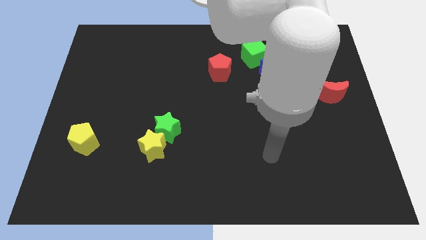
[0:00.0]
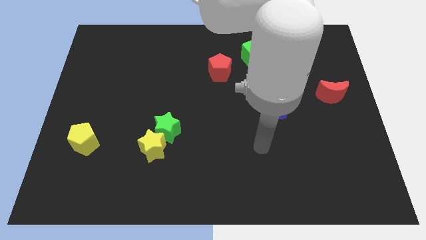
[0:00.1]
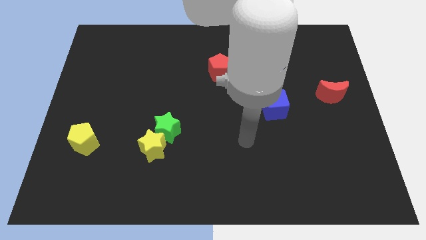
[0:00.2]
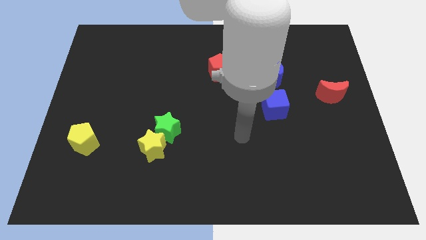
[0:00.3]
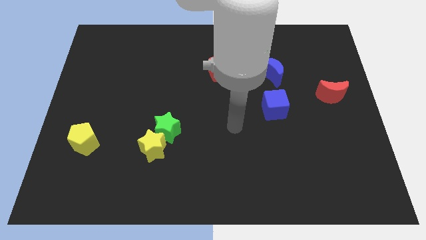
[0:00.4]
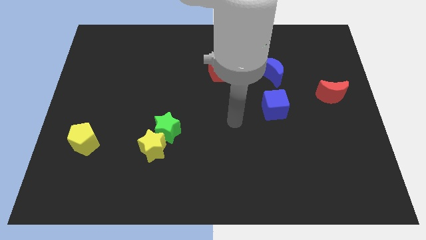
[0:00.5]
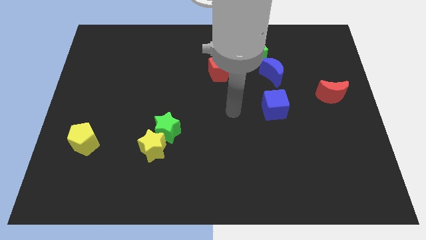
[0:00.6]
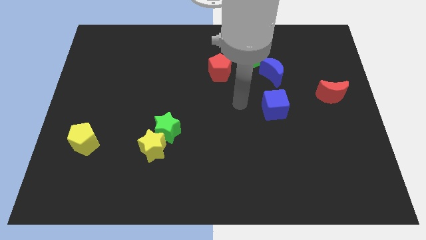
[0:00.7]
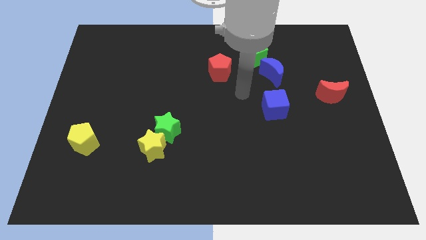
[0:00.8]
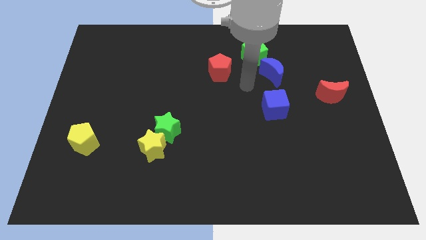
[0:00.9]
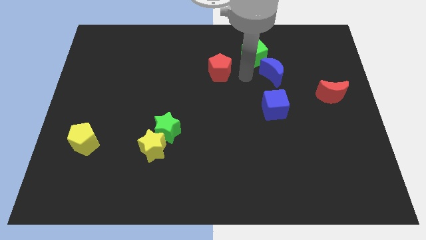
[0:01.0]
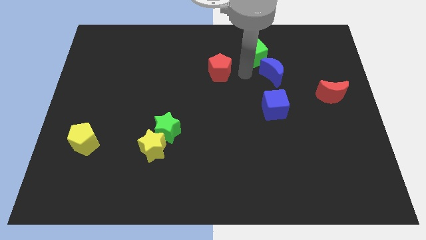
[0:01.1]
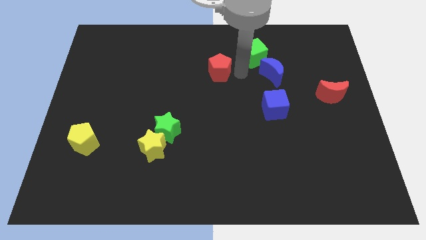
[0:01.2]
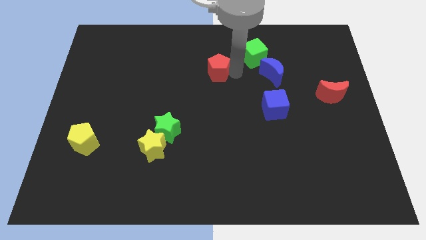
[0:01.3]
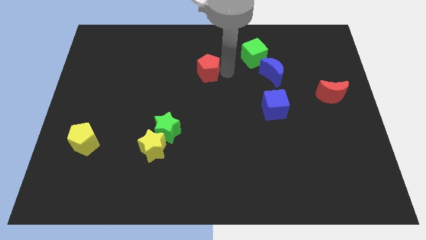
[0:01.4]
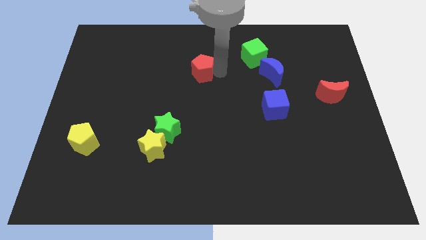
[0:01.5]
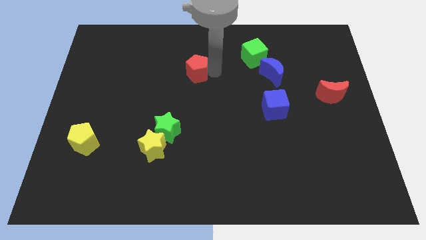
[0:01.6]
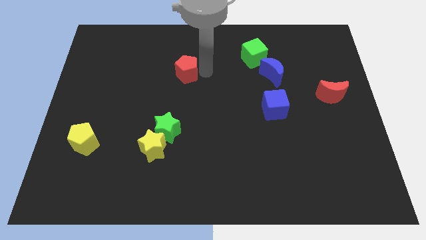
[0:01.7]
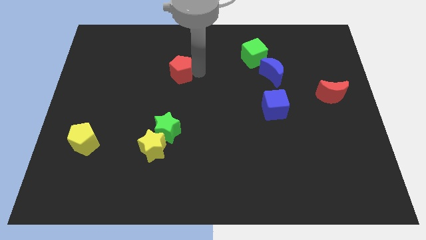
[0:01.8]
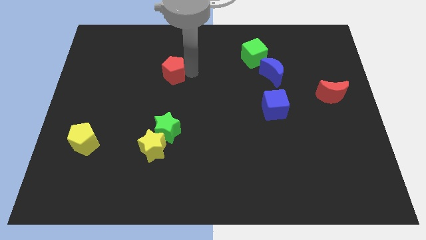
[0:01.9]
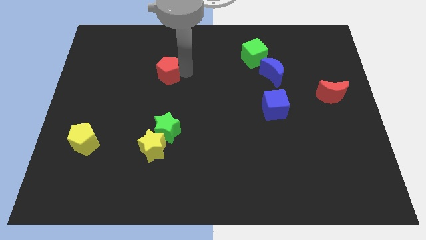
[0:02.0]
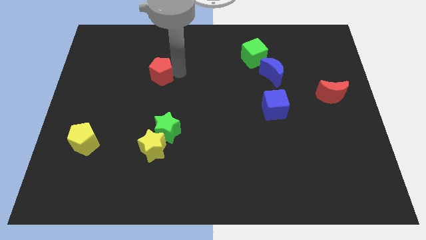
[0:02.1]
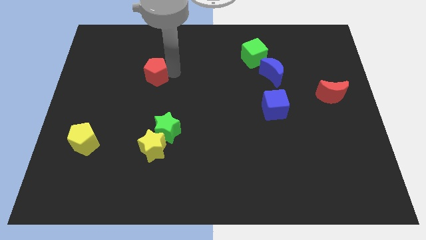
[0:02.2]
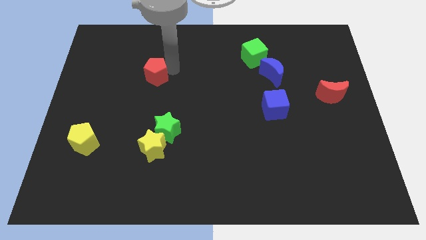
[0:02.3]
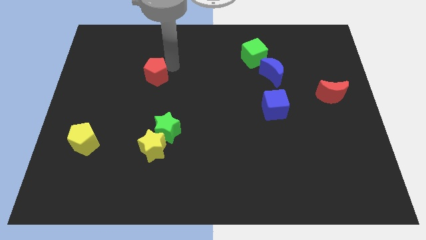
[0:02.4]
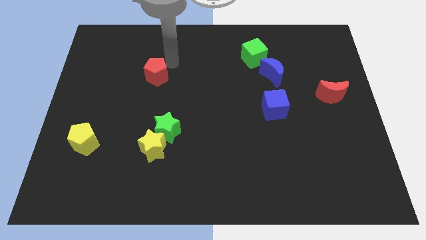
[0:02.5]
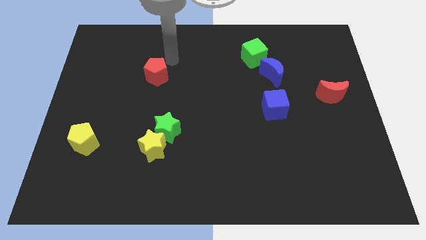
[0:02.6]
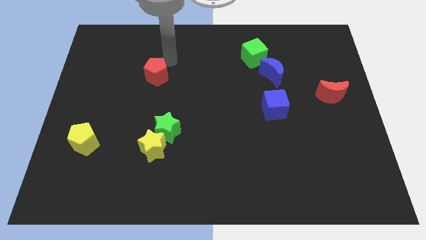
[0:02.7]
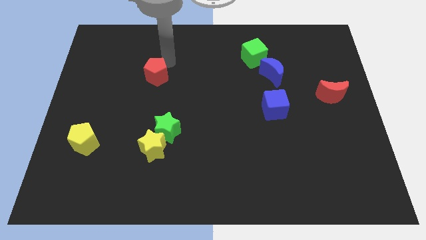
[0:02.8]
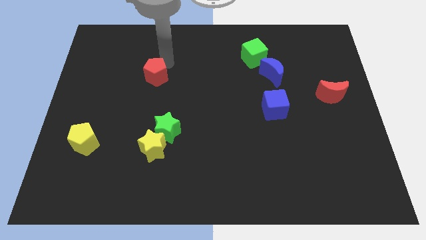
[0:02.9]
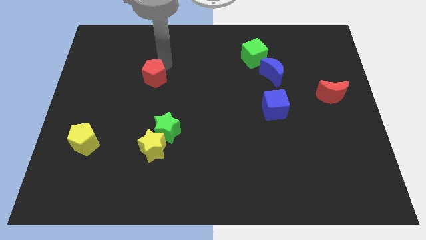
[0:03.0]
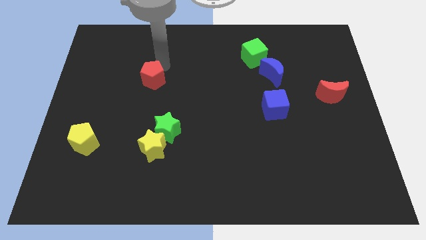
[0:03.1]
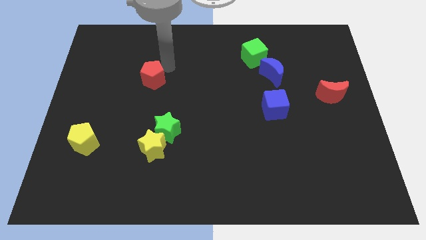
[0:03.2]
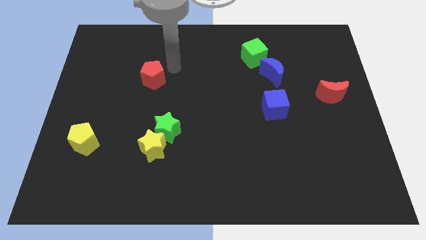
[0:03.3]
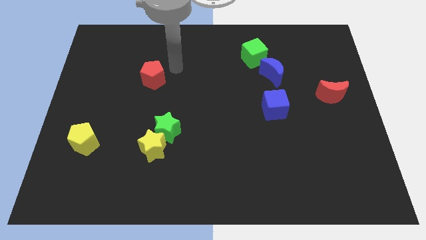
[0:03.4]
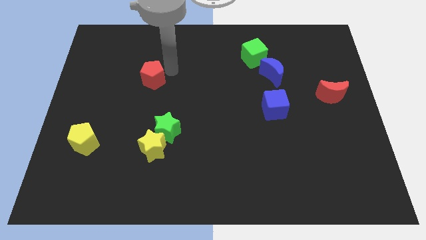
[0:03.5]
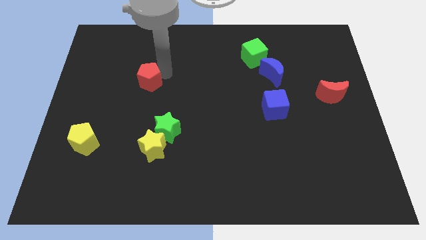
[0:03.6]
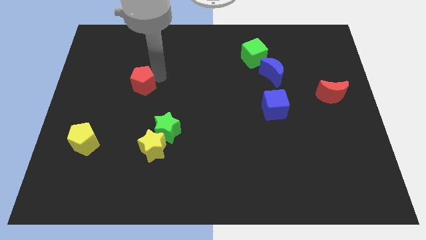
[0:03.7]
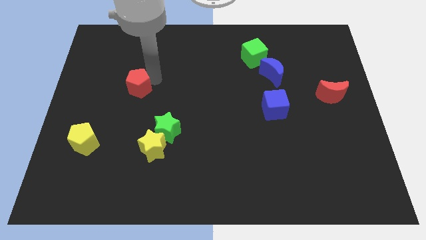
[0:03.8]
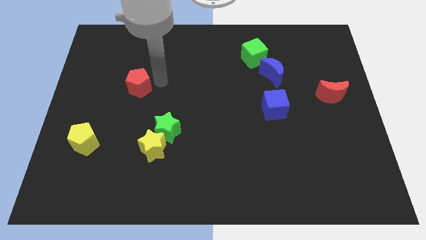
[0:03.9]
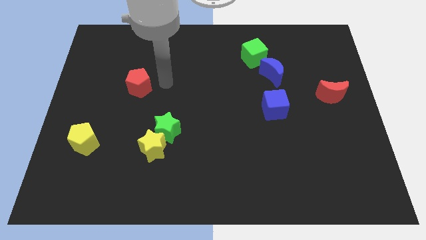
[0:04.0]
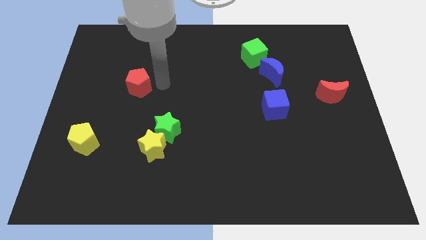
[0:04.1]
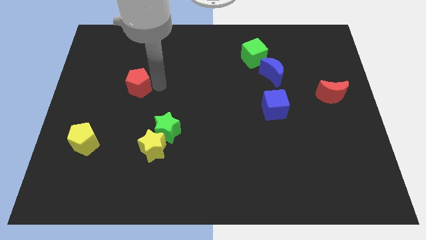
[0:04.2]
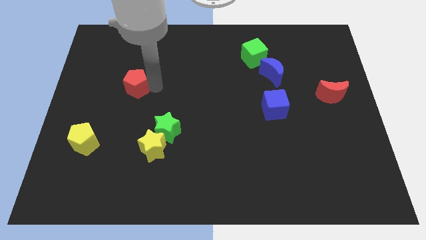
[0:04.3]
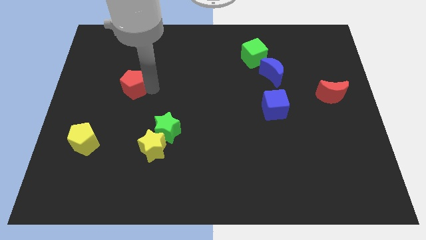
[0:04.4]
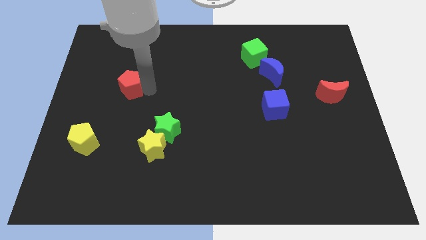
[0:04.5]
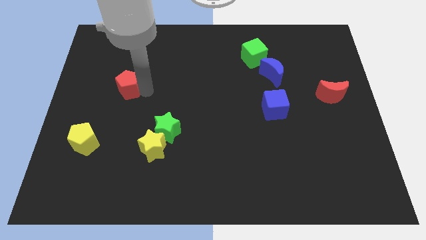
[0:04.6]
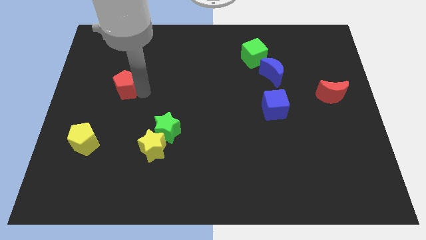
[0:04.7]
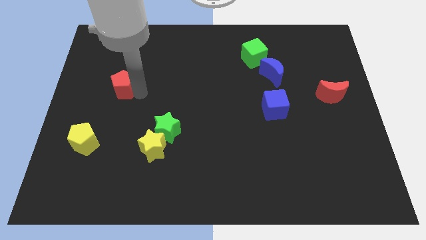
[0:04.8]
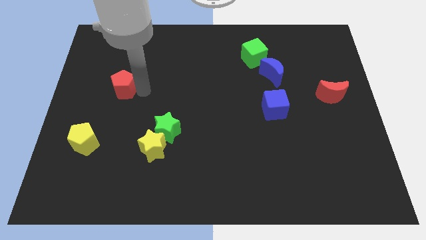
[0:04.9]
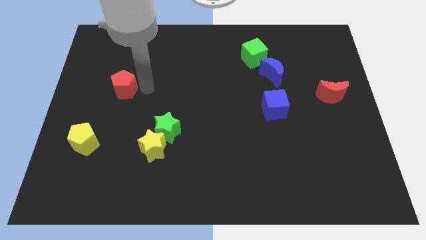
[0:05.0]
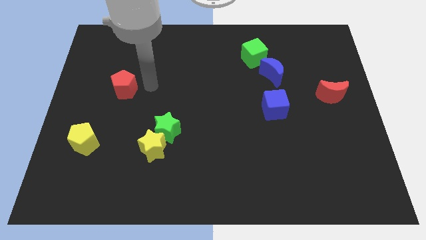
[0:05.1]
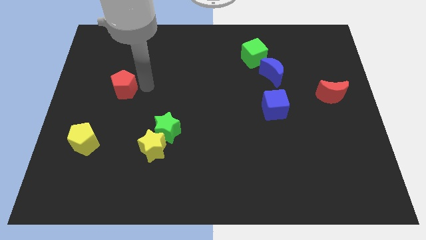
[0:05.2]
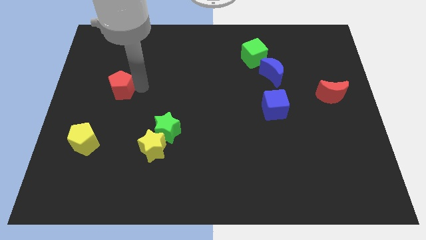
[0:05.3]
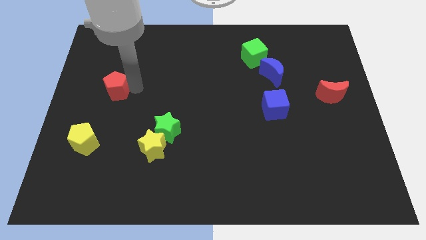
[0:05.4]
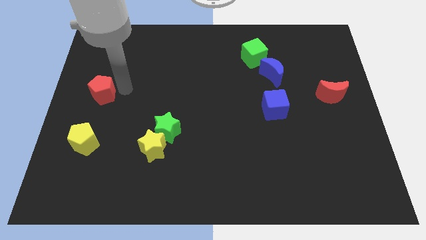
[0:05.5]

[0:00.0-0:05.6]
slide the red pentagon to the left side

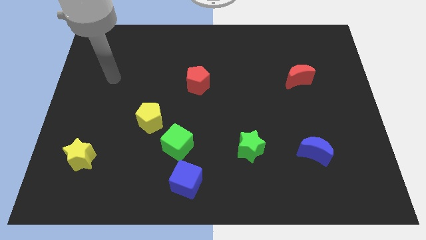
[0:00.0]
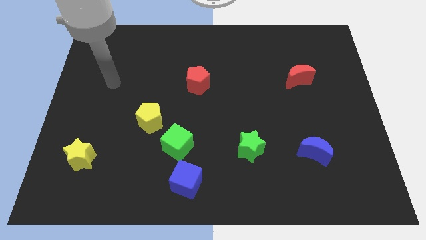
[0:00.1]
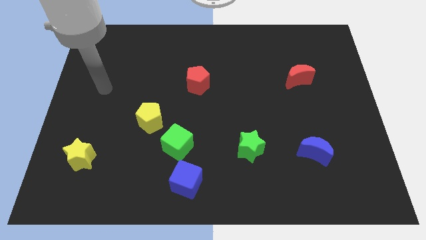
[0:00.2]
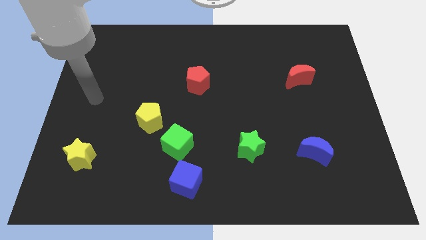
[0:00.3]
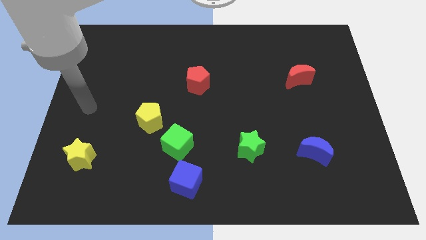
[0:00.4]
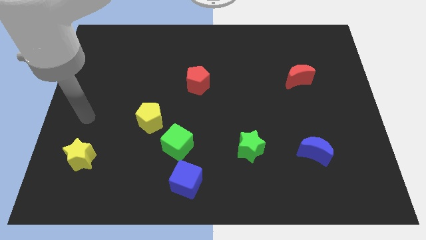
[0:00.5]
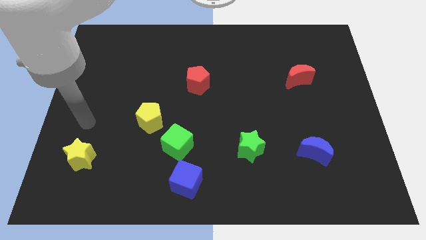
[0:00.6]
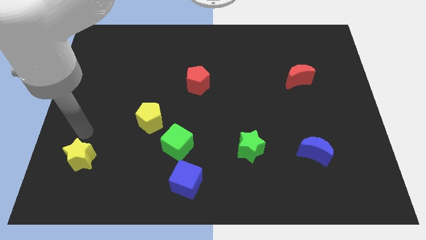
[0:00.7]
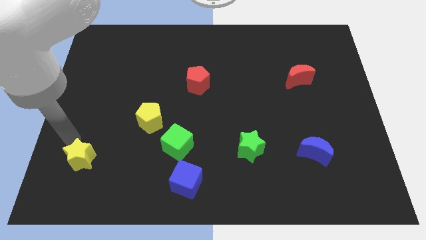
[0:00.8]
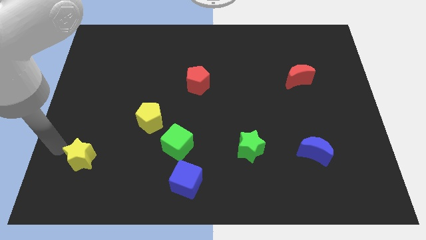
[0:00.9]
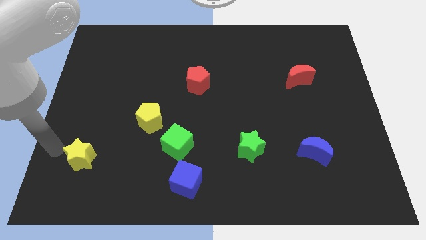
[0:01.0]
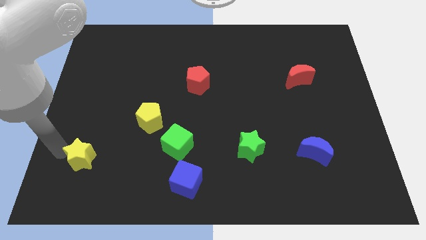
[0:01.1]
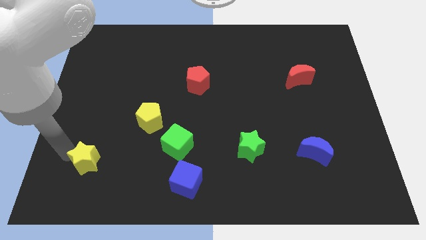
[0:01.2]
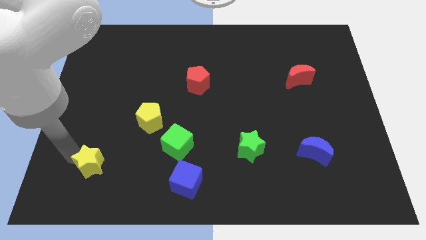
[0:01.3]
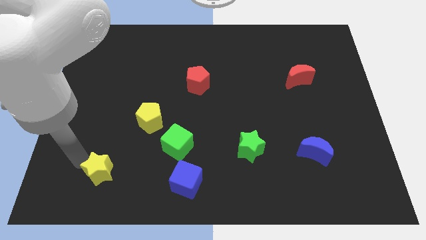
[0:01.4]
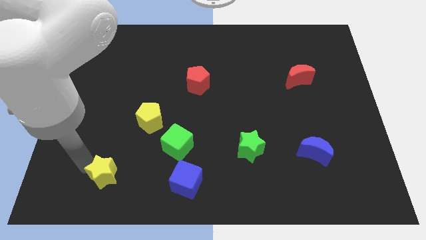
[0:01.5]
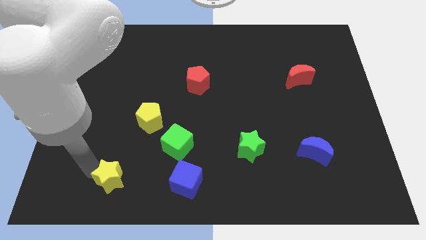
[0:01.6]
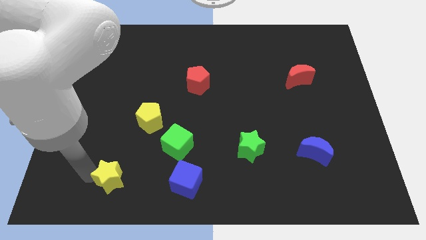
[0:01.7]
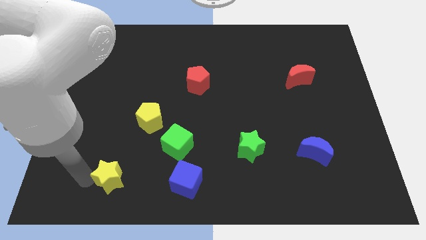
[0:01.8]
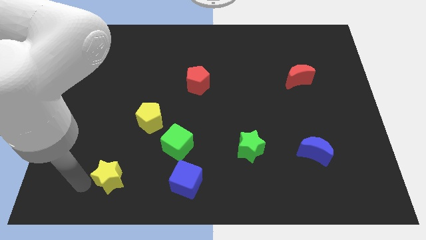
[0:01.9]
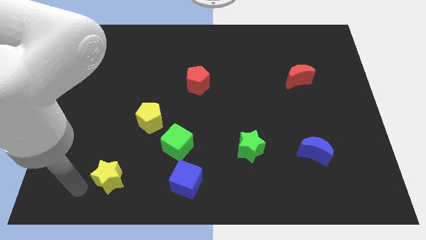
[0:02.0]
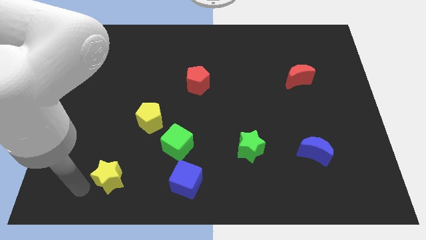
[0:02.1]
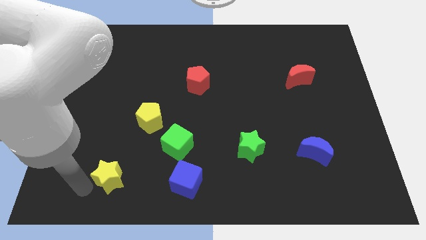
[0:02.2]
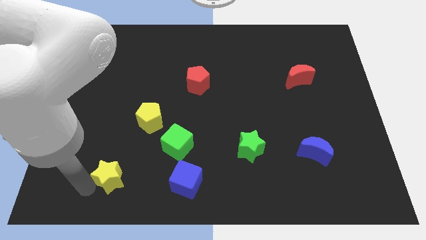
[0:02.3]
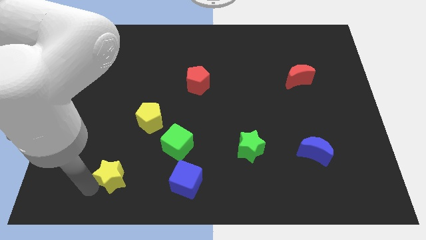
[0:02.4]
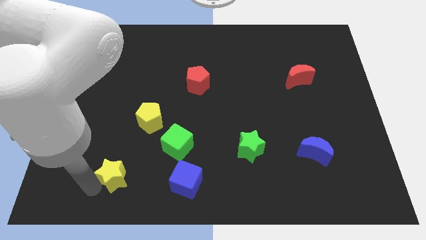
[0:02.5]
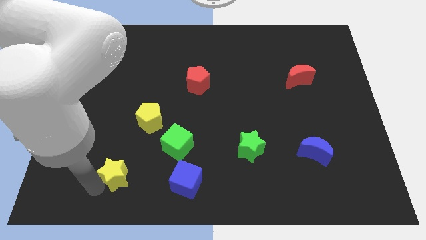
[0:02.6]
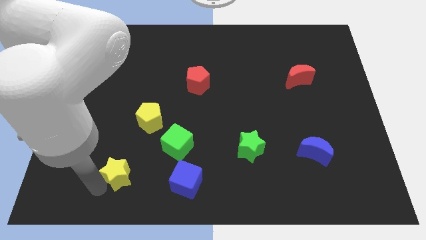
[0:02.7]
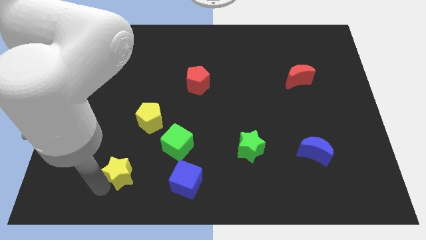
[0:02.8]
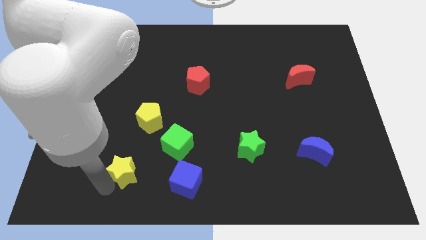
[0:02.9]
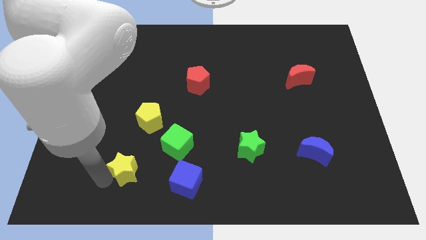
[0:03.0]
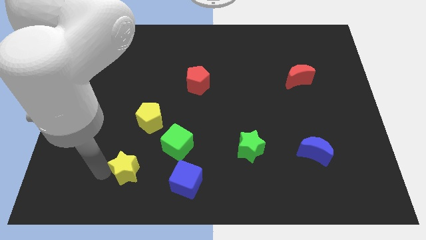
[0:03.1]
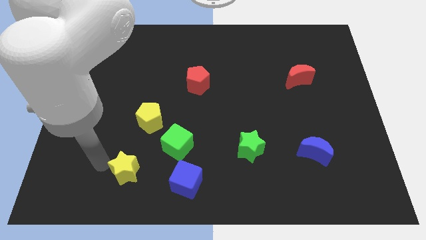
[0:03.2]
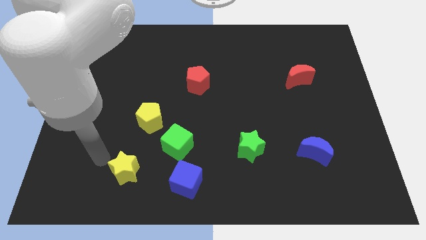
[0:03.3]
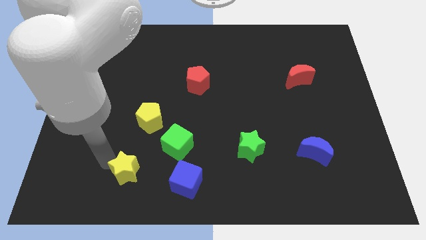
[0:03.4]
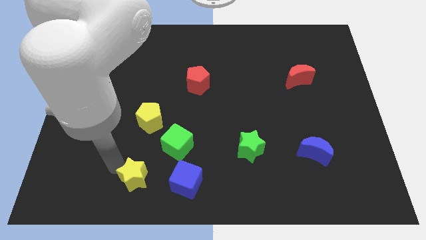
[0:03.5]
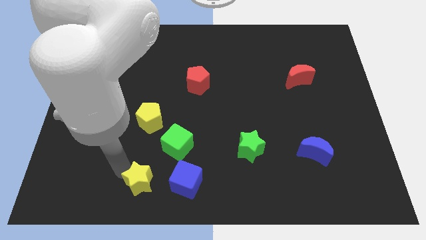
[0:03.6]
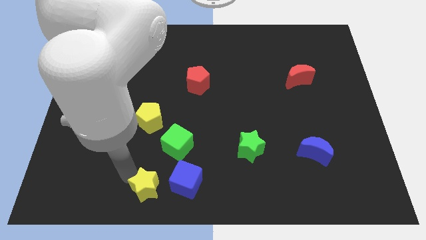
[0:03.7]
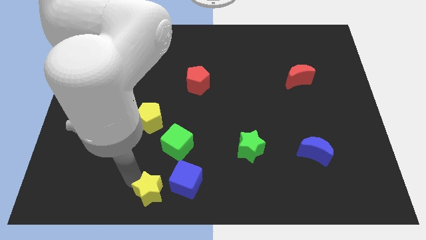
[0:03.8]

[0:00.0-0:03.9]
move the yellow star to the bottom
